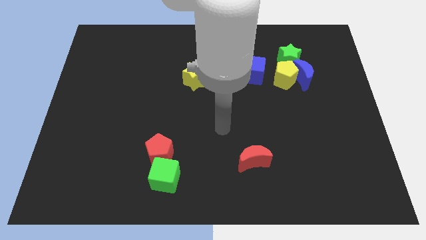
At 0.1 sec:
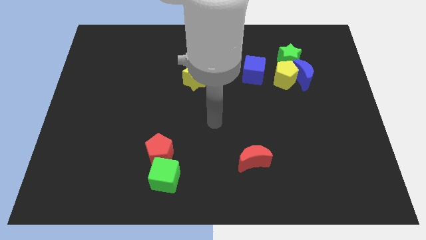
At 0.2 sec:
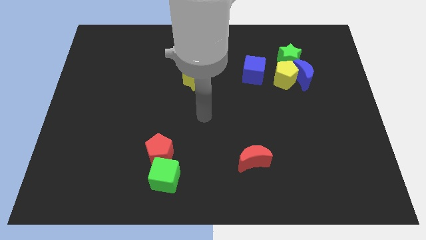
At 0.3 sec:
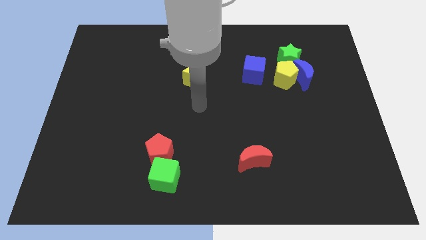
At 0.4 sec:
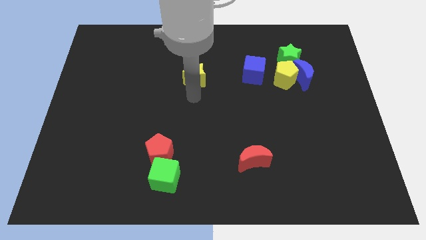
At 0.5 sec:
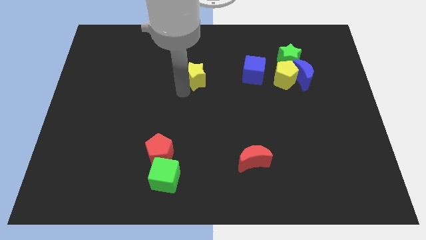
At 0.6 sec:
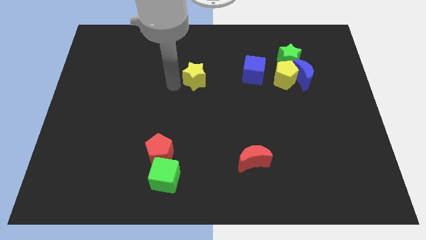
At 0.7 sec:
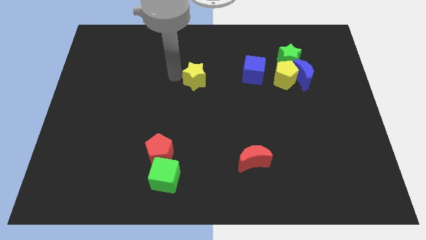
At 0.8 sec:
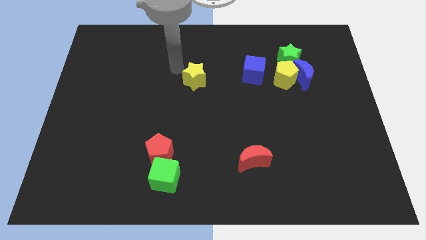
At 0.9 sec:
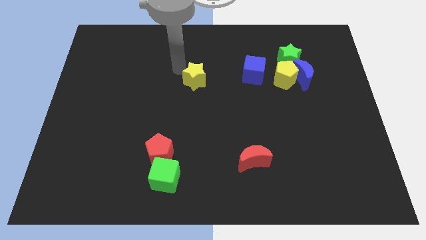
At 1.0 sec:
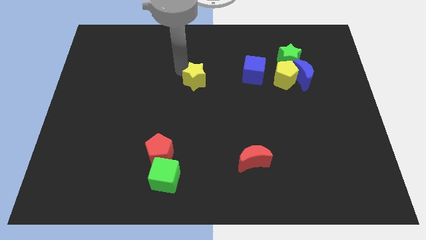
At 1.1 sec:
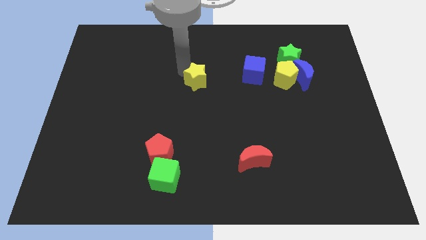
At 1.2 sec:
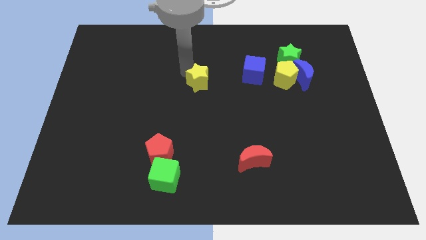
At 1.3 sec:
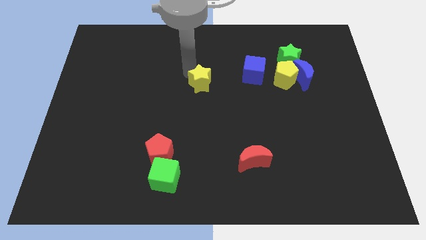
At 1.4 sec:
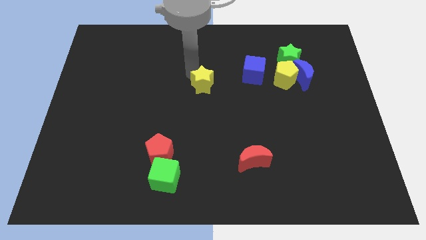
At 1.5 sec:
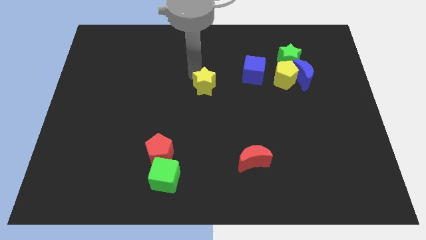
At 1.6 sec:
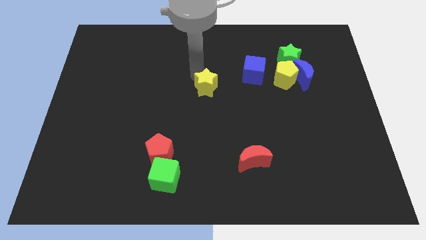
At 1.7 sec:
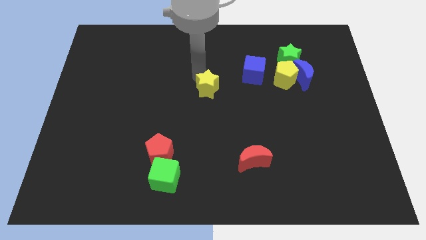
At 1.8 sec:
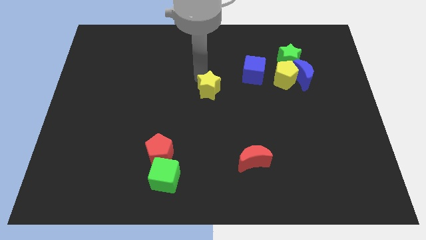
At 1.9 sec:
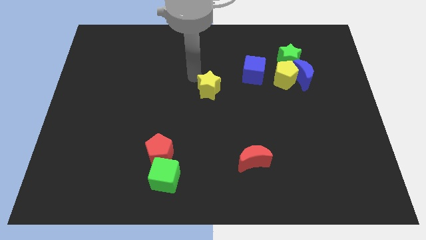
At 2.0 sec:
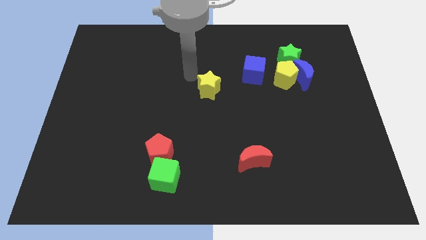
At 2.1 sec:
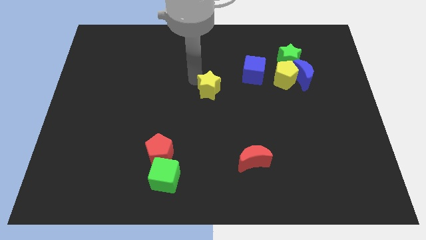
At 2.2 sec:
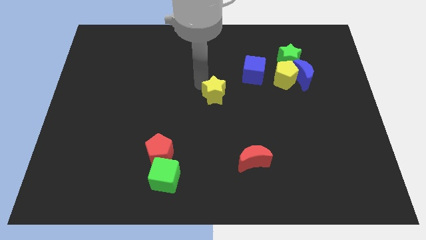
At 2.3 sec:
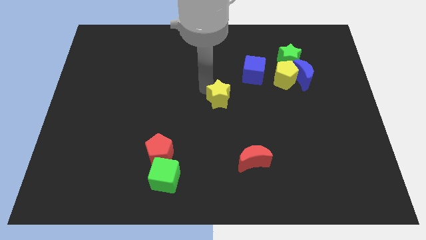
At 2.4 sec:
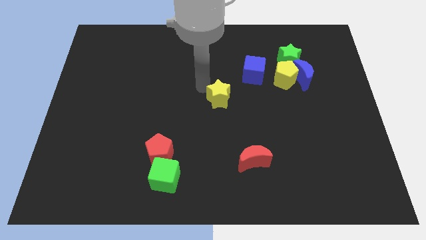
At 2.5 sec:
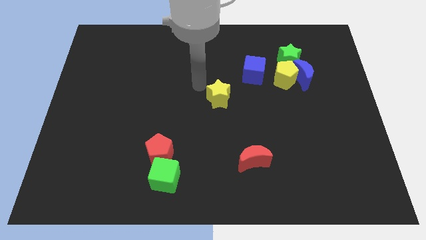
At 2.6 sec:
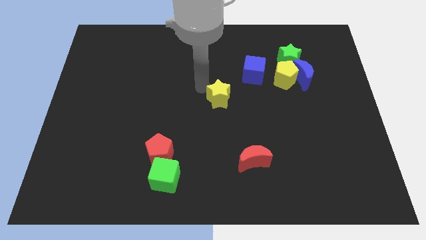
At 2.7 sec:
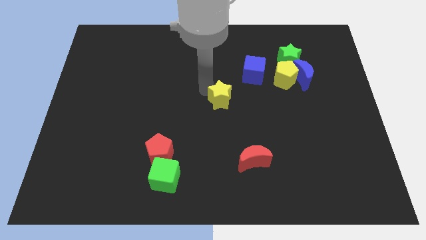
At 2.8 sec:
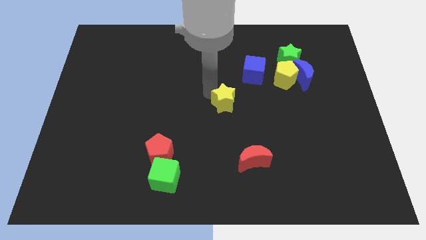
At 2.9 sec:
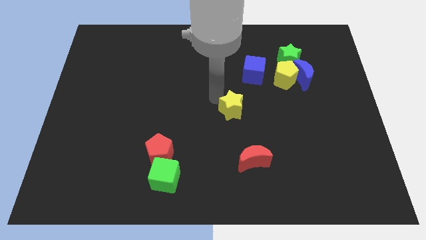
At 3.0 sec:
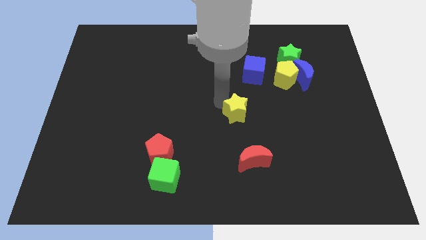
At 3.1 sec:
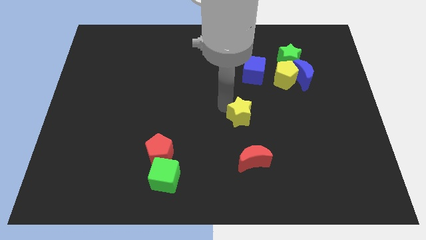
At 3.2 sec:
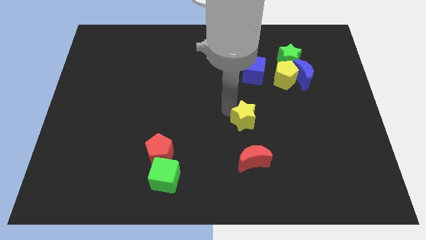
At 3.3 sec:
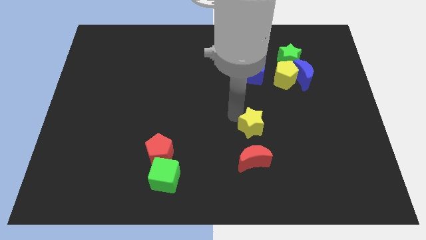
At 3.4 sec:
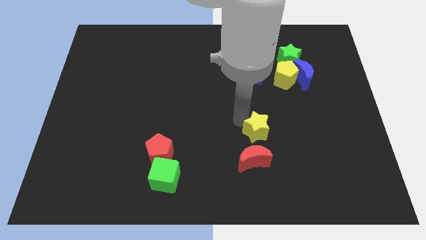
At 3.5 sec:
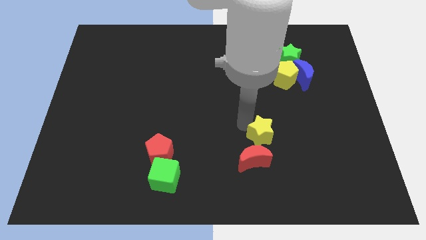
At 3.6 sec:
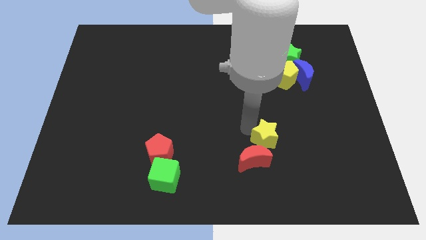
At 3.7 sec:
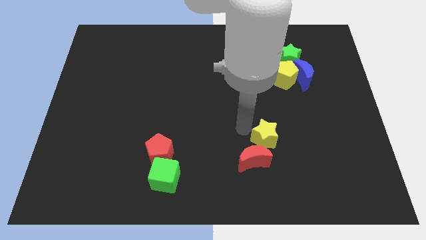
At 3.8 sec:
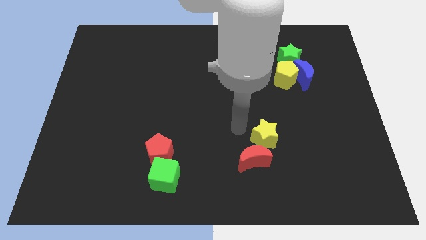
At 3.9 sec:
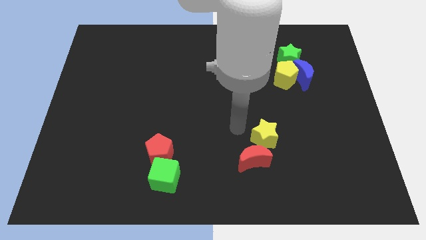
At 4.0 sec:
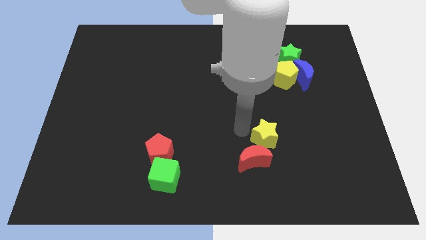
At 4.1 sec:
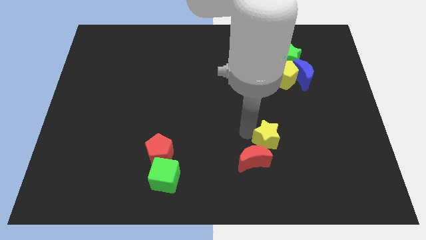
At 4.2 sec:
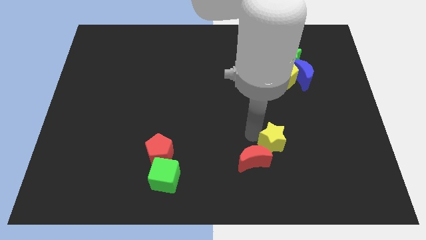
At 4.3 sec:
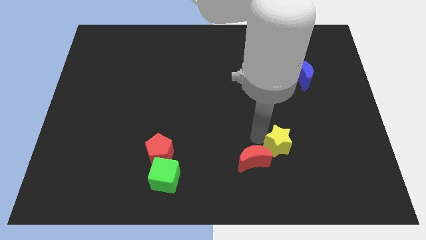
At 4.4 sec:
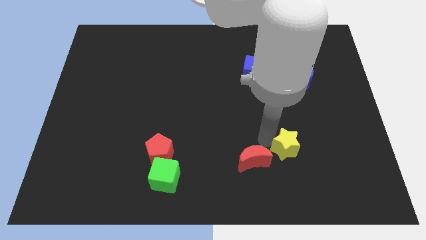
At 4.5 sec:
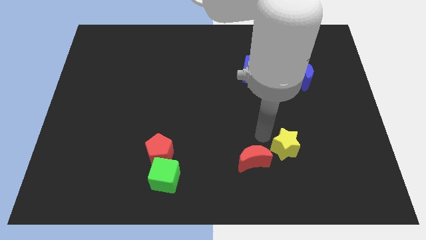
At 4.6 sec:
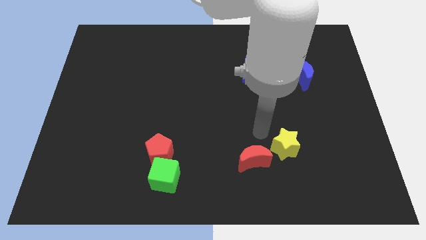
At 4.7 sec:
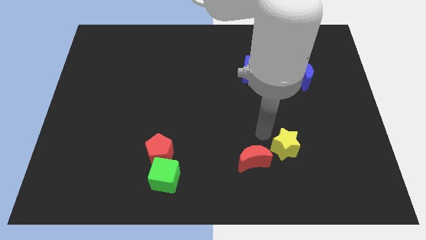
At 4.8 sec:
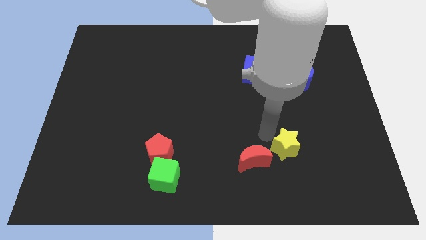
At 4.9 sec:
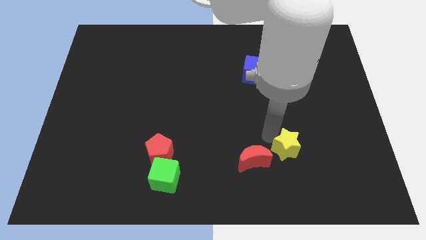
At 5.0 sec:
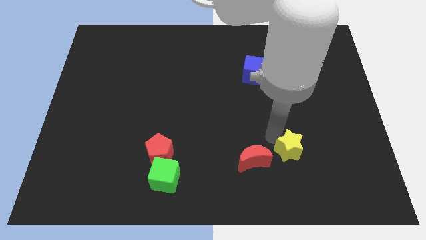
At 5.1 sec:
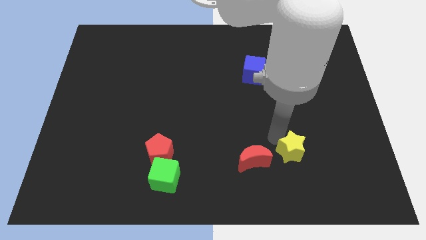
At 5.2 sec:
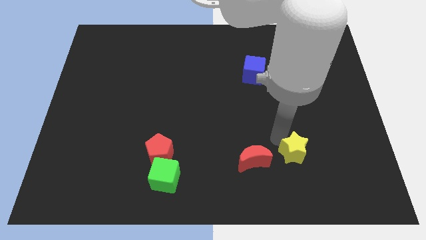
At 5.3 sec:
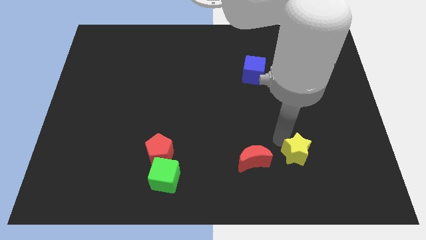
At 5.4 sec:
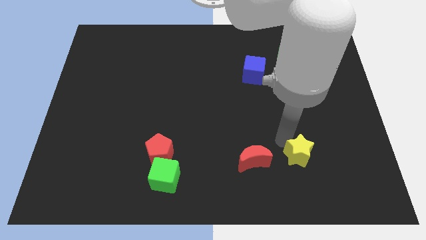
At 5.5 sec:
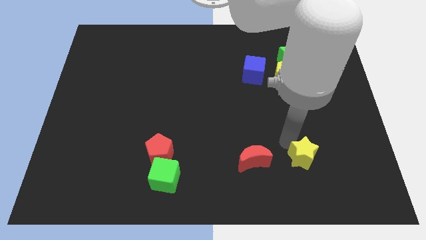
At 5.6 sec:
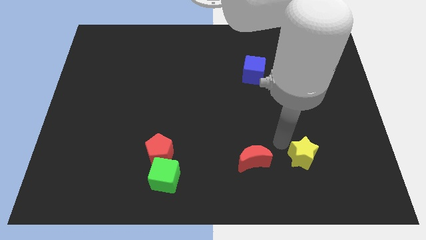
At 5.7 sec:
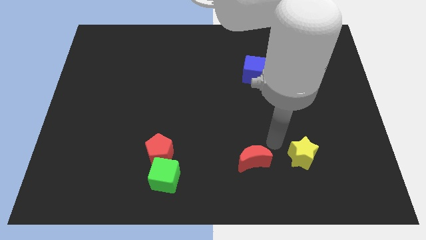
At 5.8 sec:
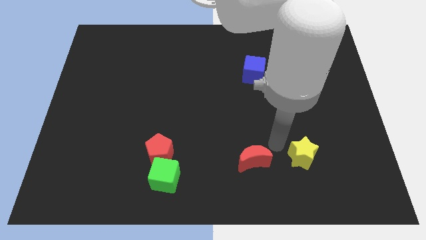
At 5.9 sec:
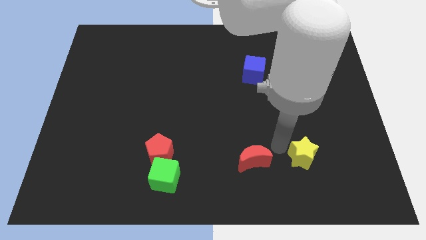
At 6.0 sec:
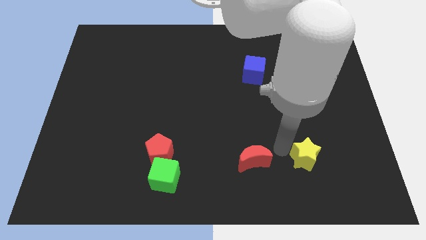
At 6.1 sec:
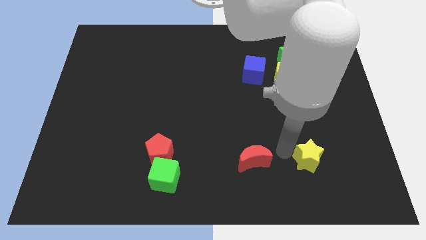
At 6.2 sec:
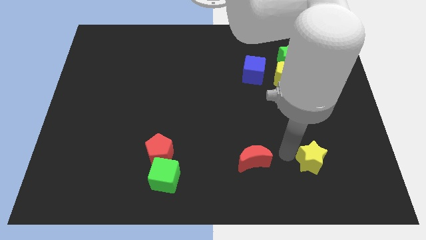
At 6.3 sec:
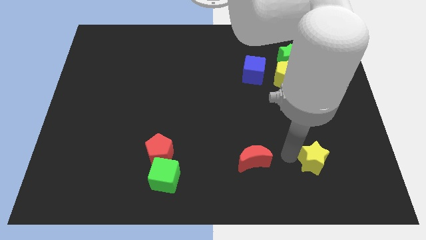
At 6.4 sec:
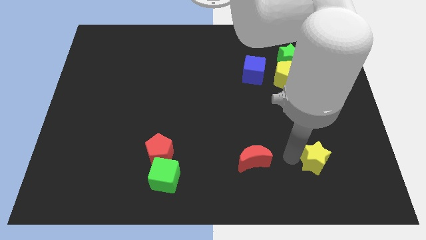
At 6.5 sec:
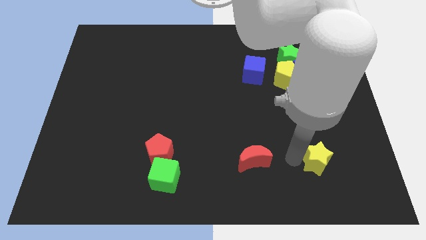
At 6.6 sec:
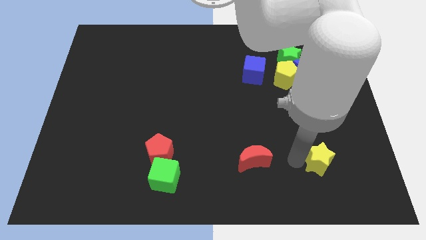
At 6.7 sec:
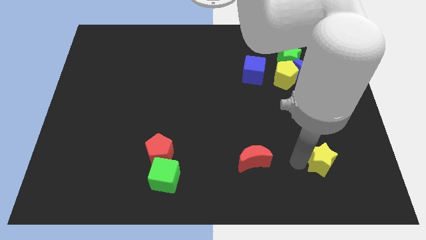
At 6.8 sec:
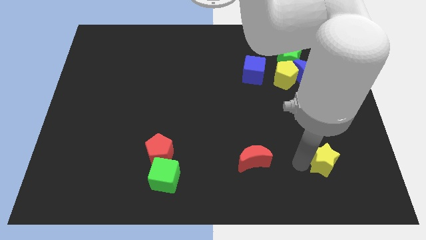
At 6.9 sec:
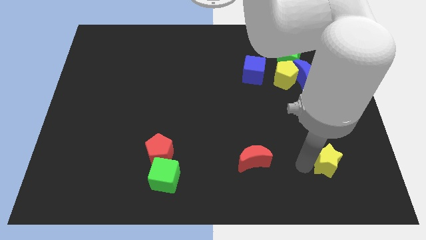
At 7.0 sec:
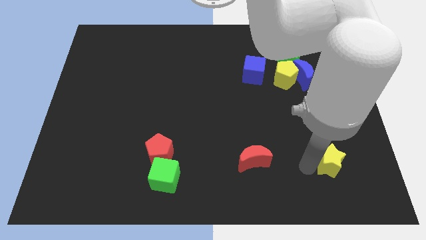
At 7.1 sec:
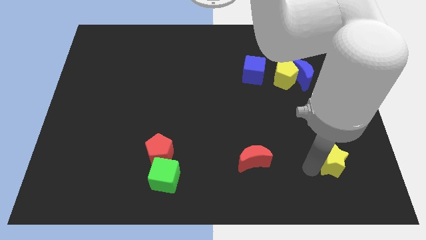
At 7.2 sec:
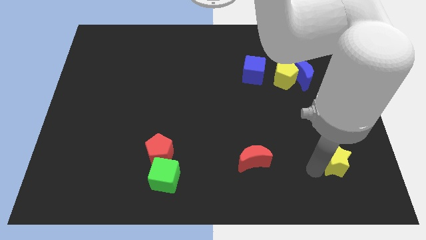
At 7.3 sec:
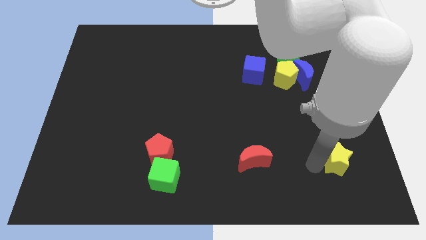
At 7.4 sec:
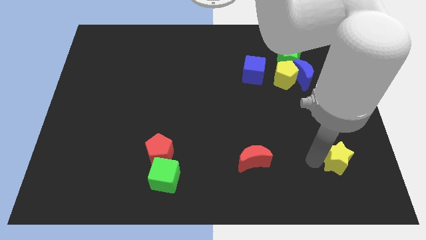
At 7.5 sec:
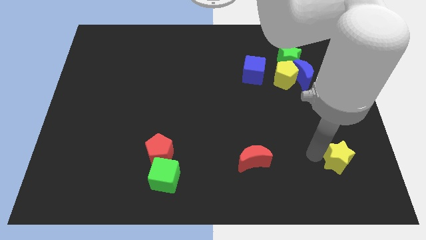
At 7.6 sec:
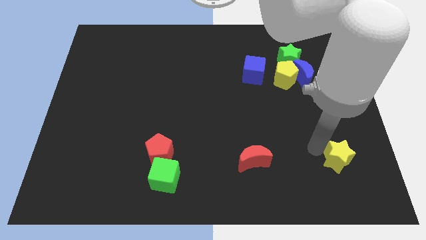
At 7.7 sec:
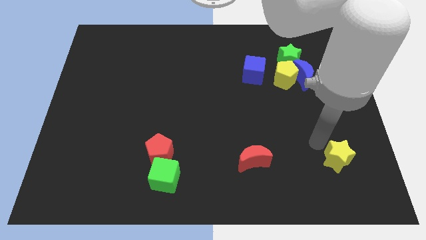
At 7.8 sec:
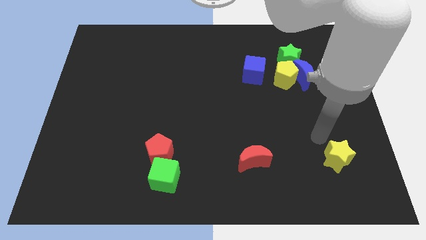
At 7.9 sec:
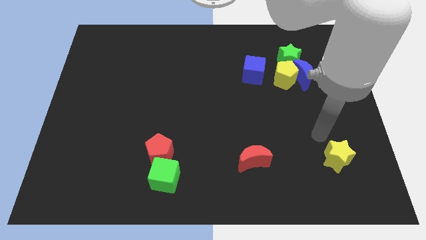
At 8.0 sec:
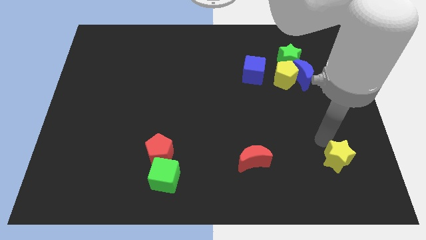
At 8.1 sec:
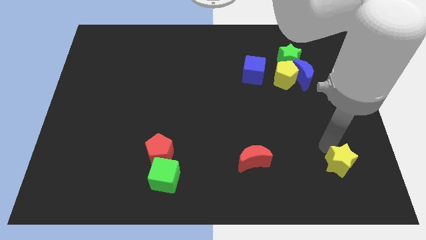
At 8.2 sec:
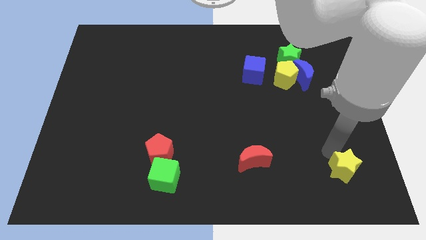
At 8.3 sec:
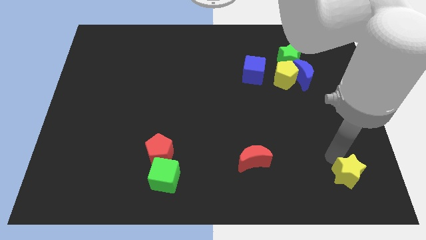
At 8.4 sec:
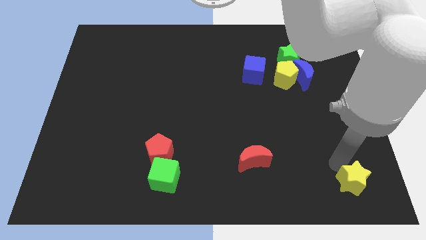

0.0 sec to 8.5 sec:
move the yellow star to the bottom right
